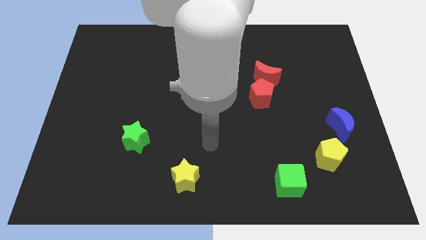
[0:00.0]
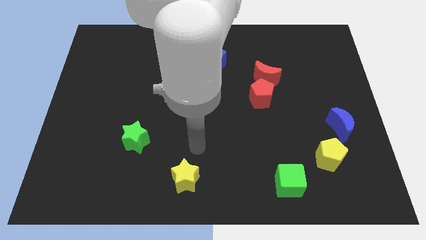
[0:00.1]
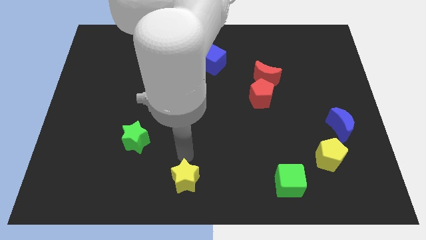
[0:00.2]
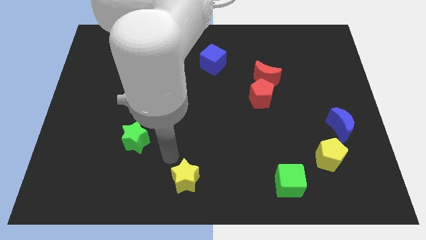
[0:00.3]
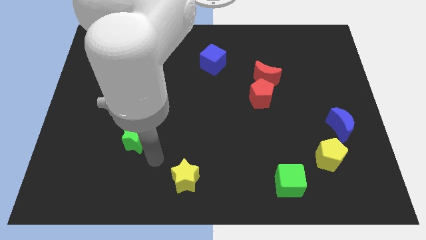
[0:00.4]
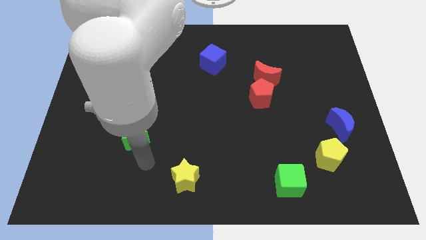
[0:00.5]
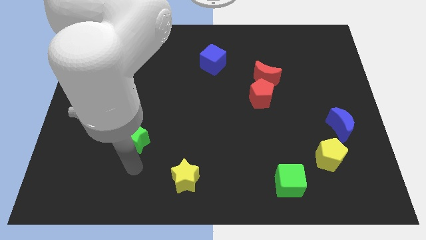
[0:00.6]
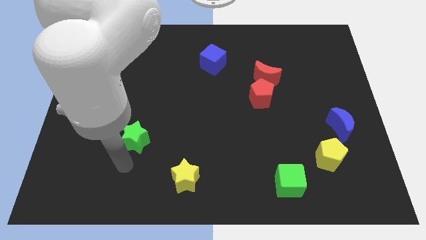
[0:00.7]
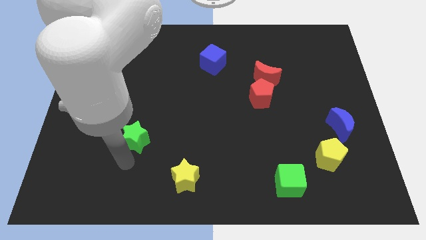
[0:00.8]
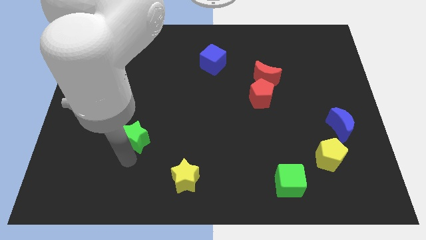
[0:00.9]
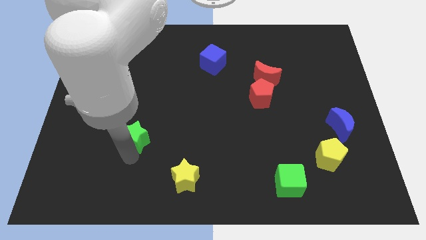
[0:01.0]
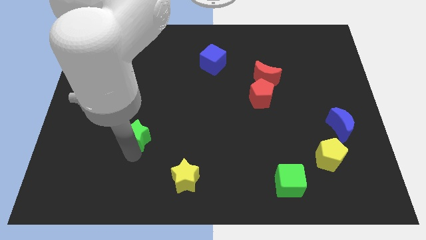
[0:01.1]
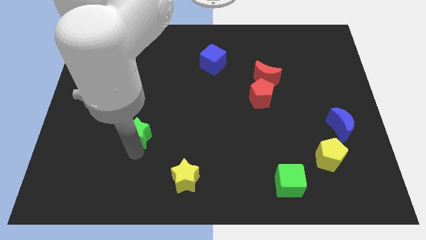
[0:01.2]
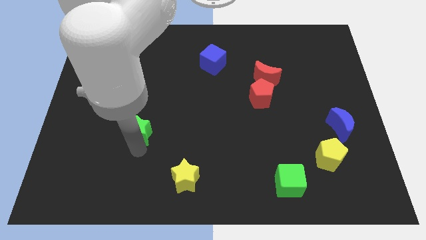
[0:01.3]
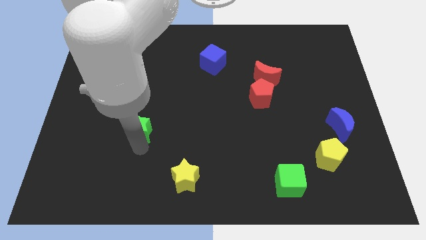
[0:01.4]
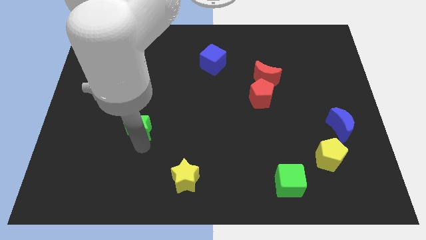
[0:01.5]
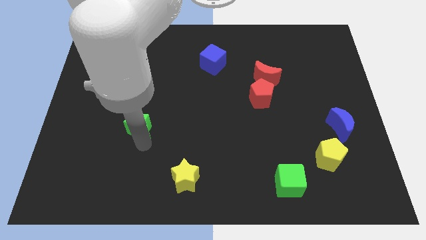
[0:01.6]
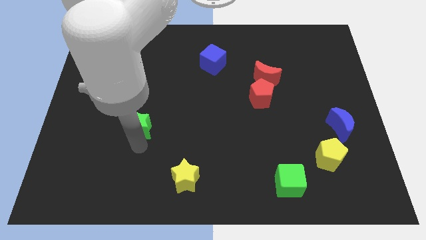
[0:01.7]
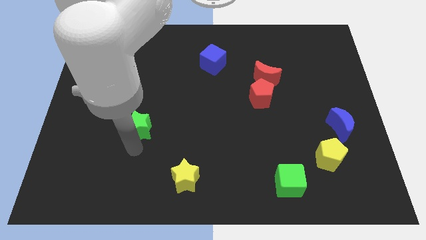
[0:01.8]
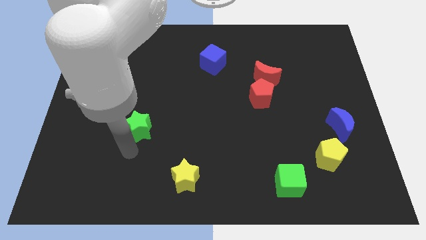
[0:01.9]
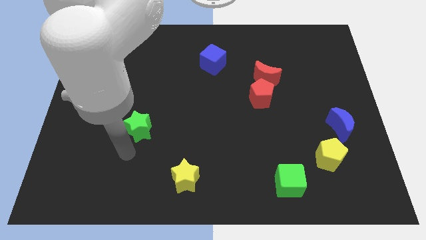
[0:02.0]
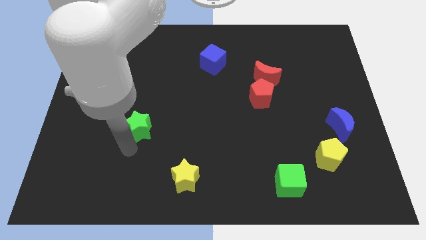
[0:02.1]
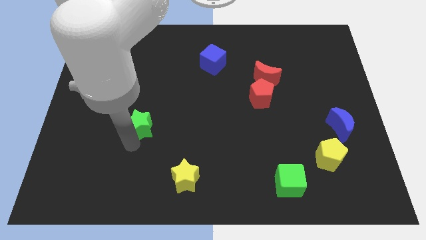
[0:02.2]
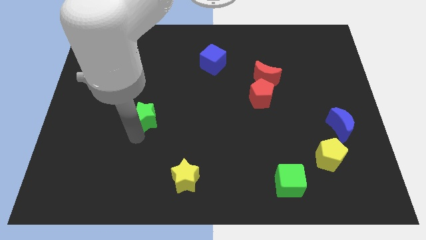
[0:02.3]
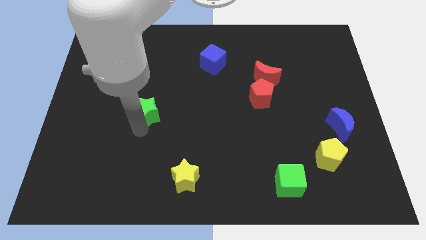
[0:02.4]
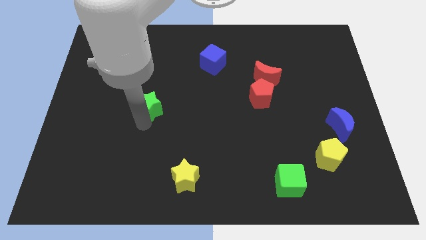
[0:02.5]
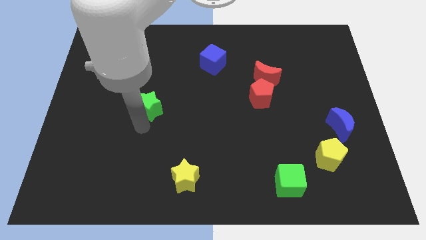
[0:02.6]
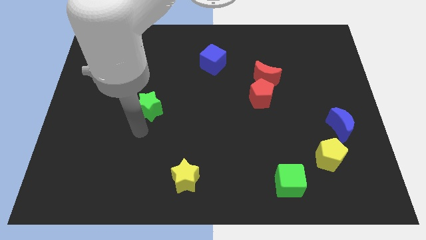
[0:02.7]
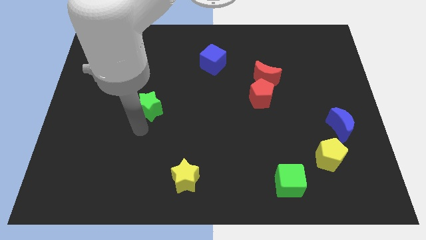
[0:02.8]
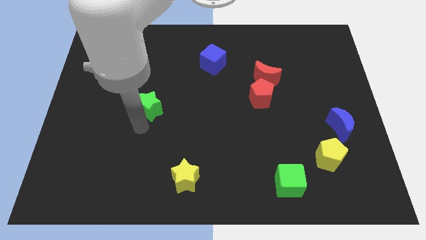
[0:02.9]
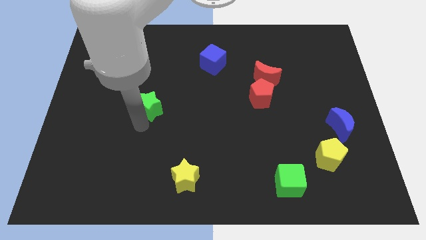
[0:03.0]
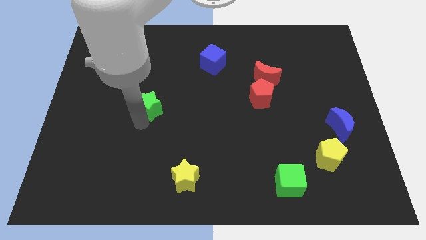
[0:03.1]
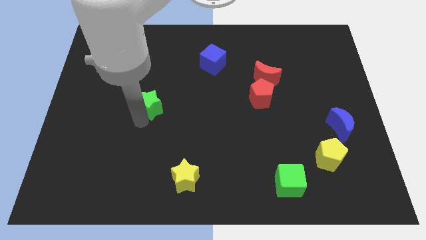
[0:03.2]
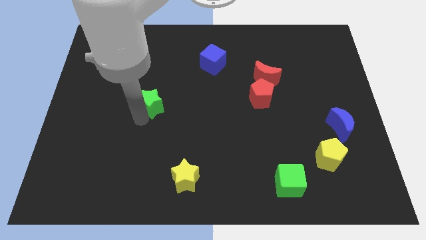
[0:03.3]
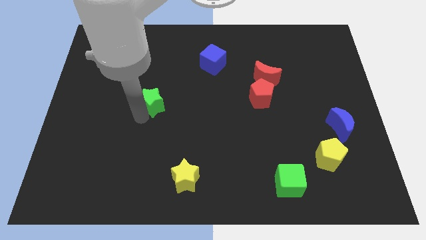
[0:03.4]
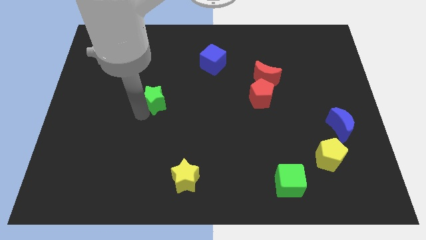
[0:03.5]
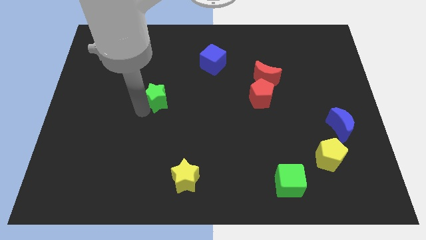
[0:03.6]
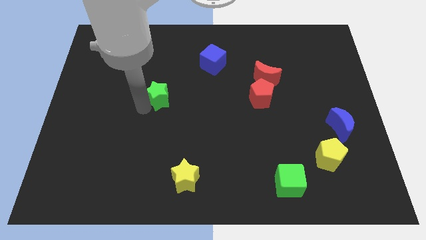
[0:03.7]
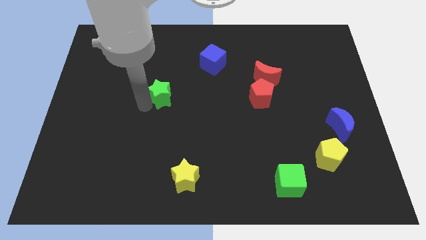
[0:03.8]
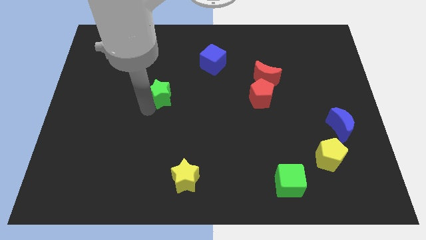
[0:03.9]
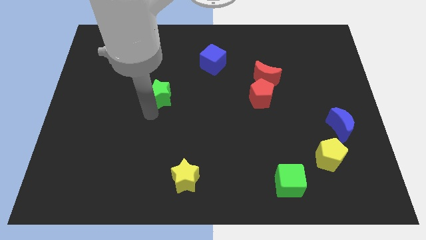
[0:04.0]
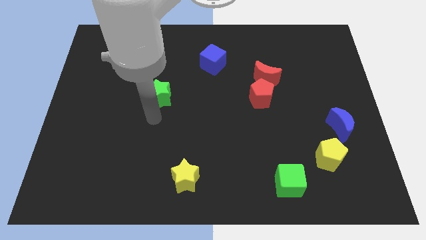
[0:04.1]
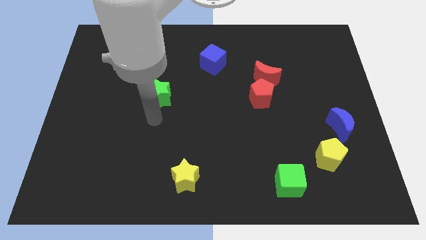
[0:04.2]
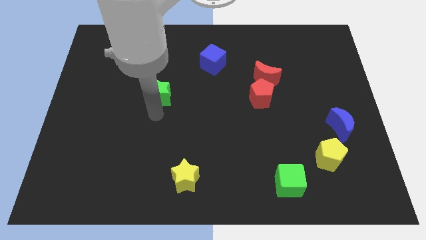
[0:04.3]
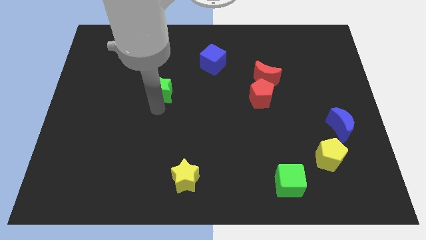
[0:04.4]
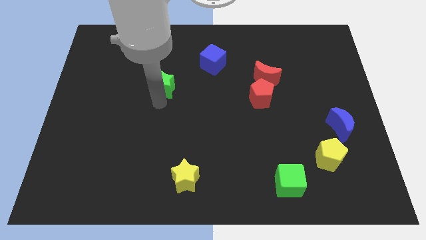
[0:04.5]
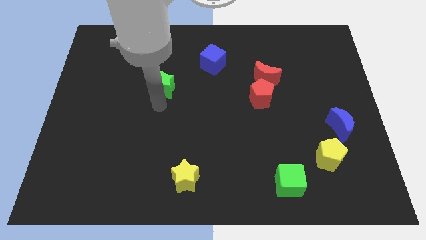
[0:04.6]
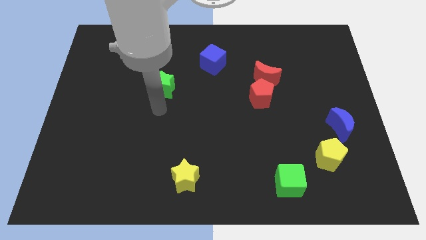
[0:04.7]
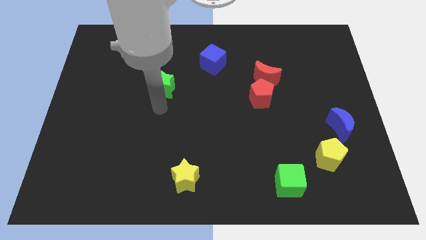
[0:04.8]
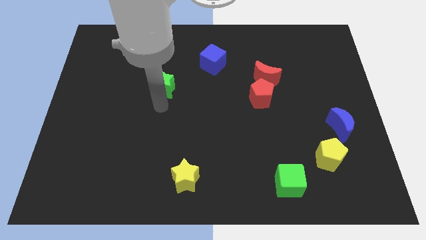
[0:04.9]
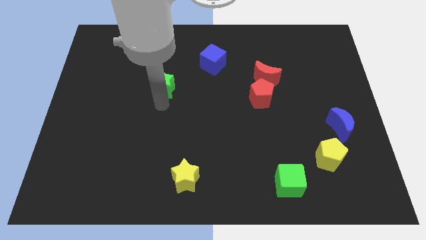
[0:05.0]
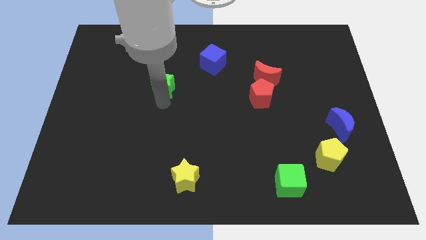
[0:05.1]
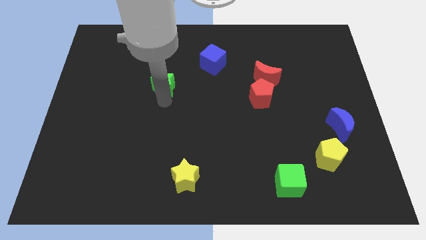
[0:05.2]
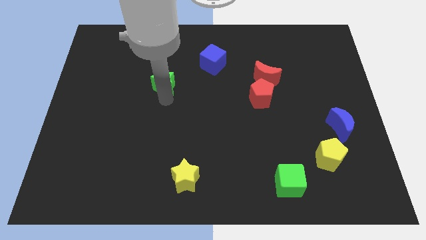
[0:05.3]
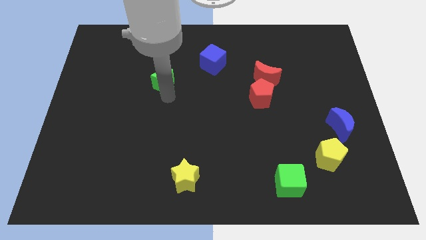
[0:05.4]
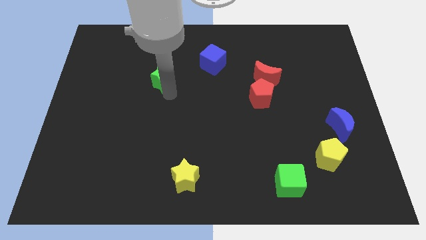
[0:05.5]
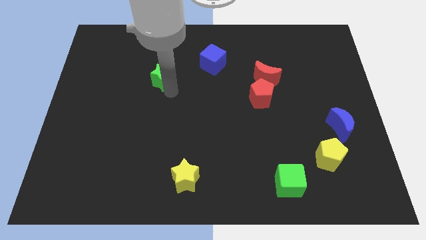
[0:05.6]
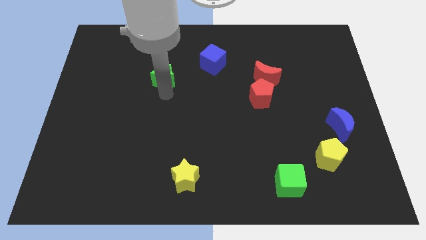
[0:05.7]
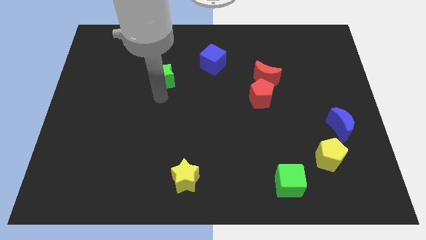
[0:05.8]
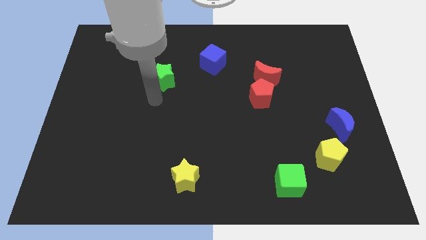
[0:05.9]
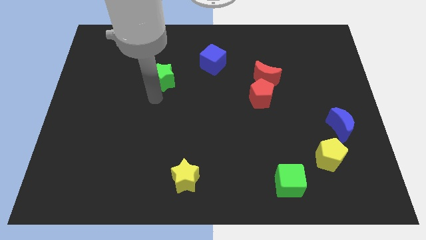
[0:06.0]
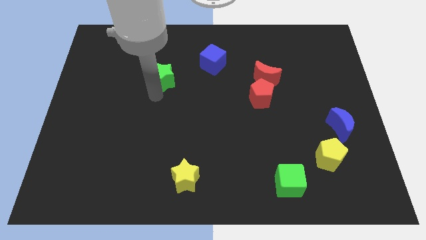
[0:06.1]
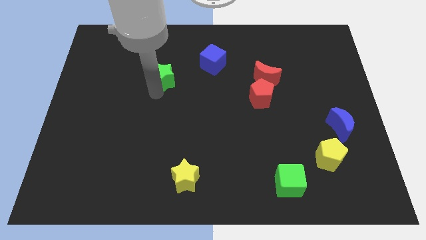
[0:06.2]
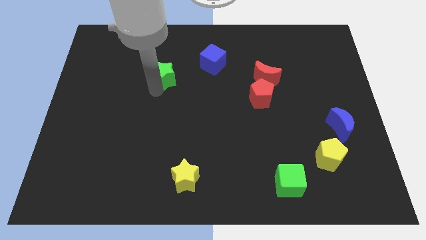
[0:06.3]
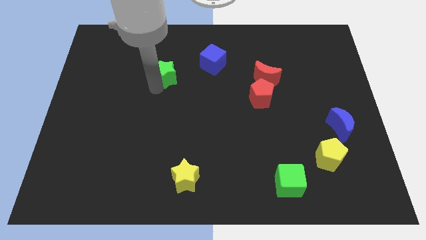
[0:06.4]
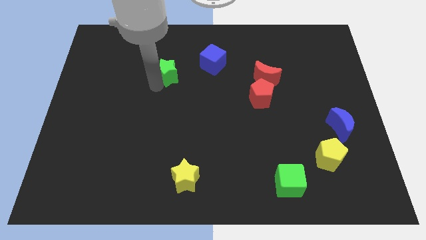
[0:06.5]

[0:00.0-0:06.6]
put the green star to the left of the blue cube

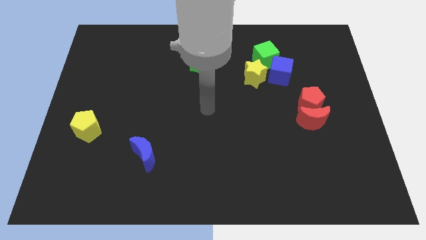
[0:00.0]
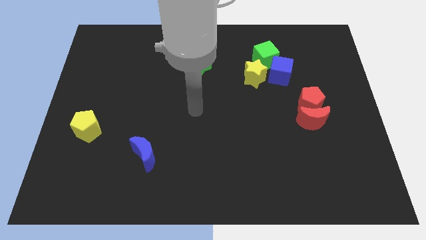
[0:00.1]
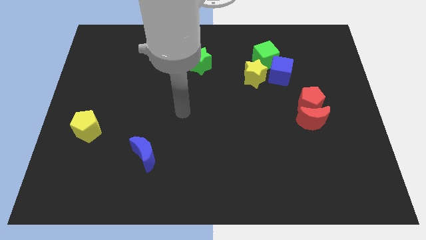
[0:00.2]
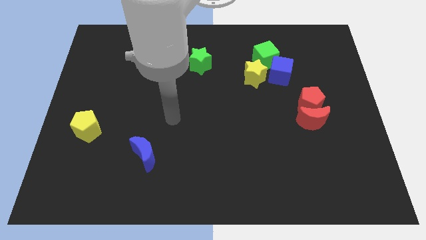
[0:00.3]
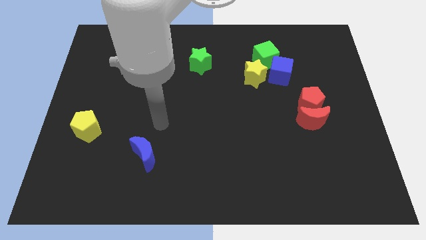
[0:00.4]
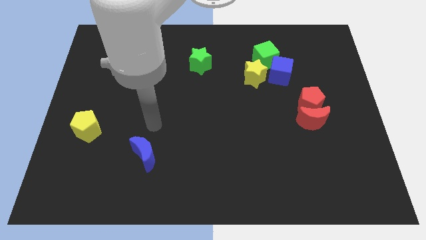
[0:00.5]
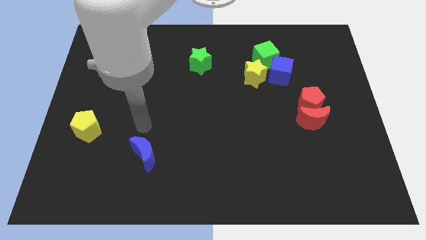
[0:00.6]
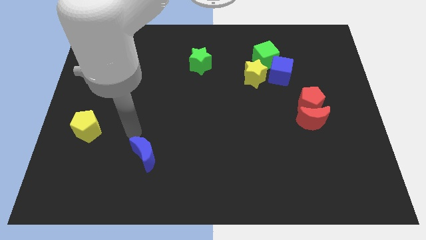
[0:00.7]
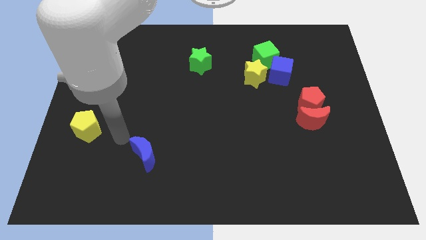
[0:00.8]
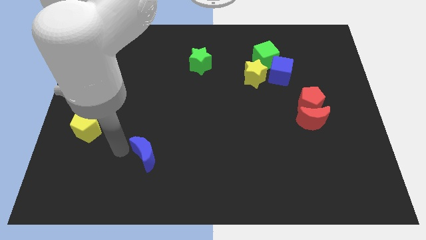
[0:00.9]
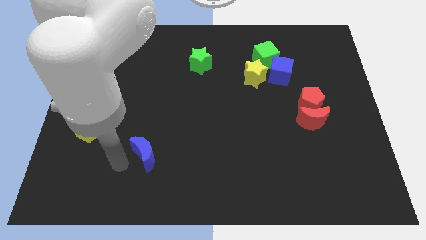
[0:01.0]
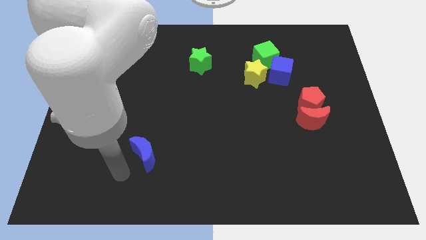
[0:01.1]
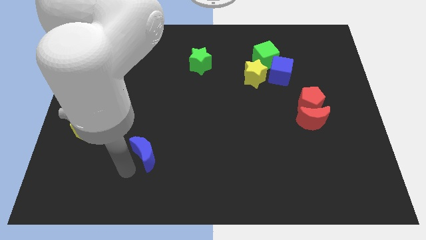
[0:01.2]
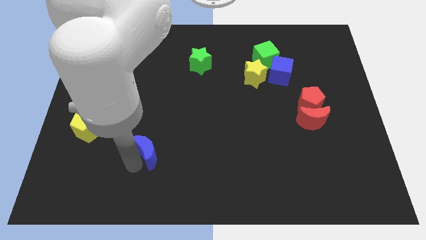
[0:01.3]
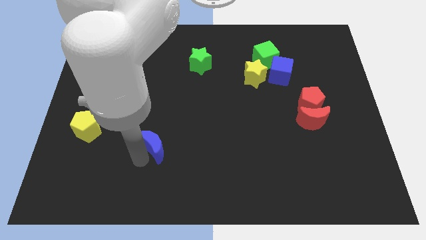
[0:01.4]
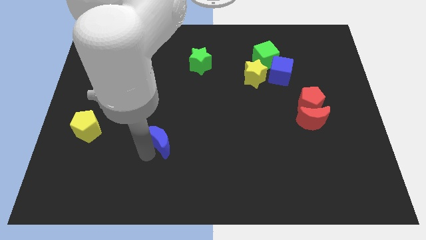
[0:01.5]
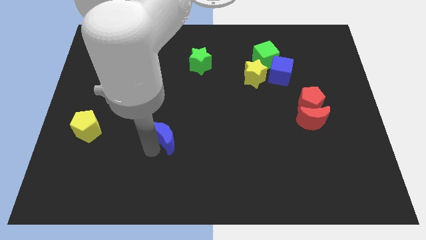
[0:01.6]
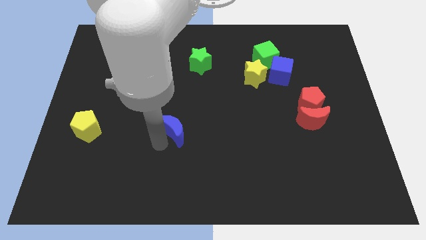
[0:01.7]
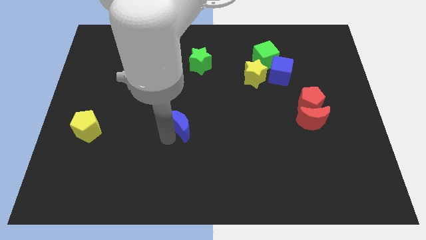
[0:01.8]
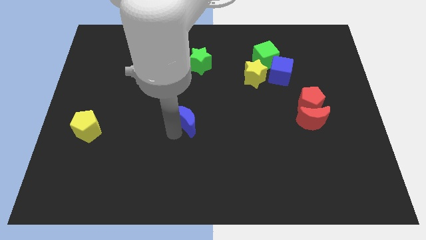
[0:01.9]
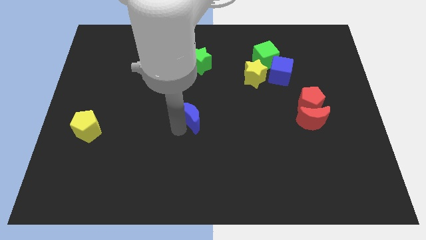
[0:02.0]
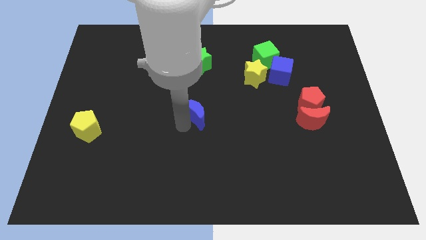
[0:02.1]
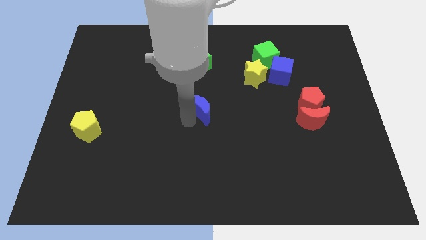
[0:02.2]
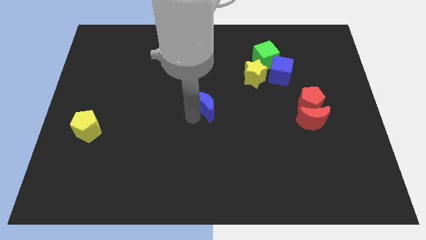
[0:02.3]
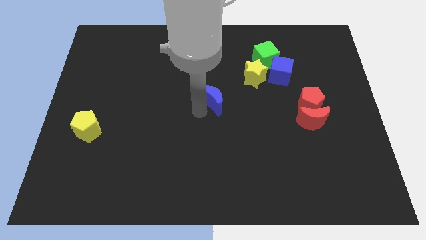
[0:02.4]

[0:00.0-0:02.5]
push the blue moon to the bottom left side of the yellow star
